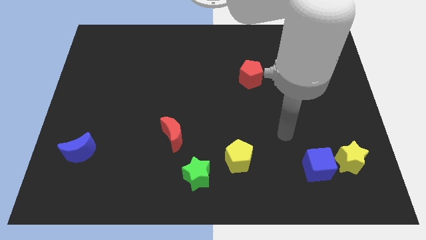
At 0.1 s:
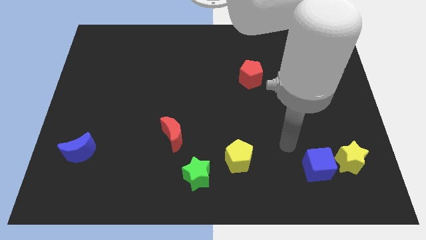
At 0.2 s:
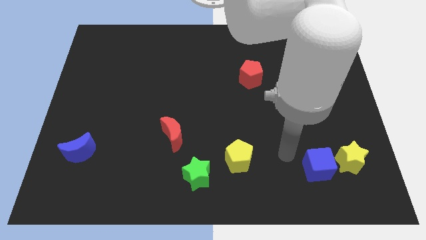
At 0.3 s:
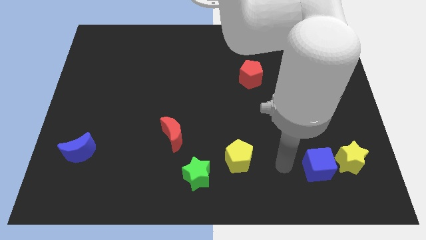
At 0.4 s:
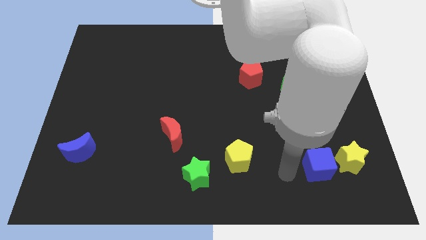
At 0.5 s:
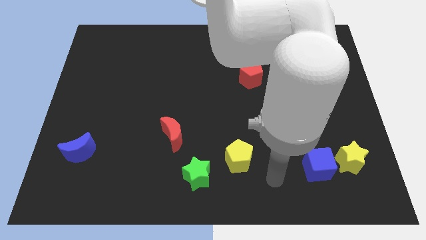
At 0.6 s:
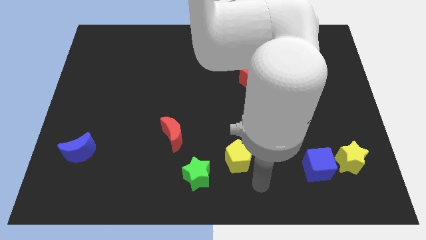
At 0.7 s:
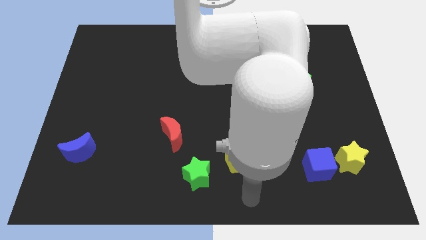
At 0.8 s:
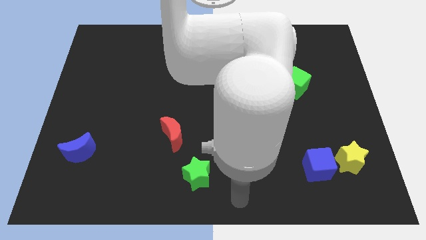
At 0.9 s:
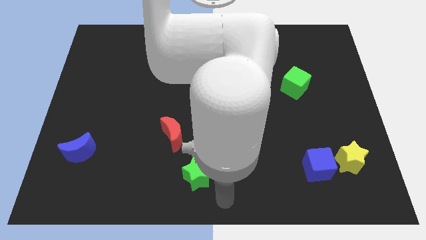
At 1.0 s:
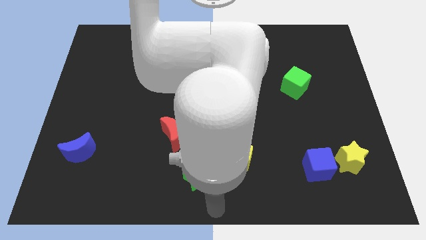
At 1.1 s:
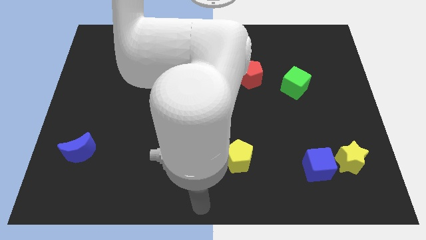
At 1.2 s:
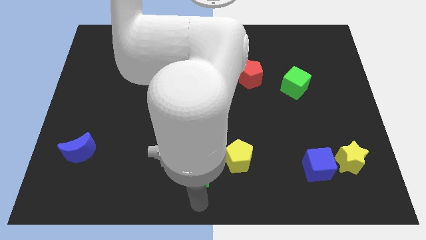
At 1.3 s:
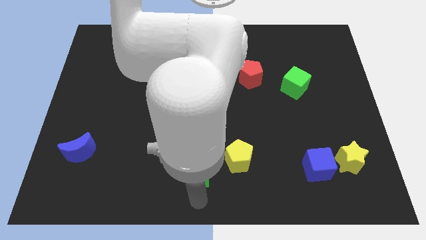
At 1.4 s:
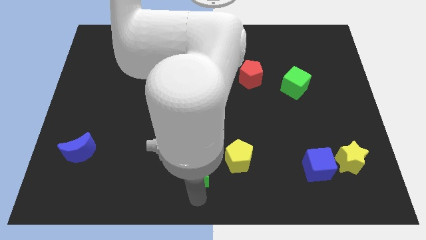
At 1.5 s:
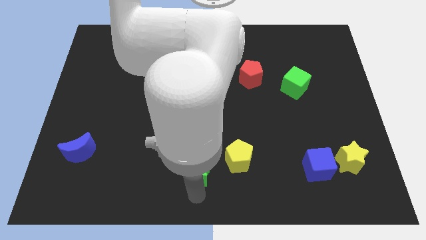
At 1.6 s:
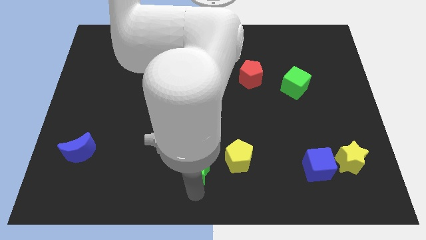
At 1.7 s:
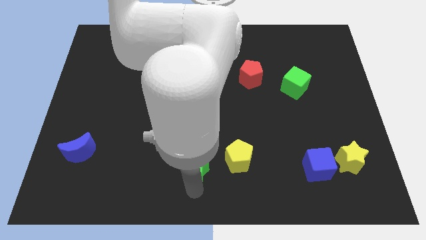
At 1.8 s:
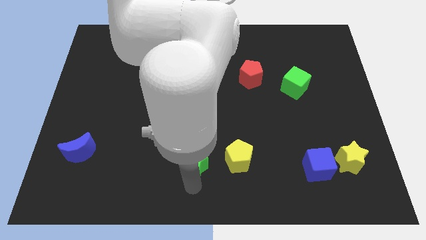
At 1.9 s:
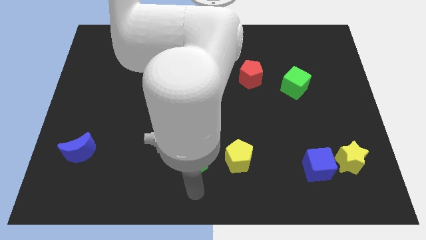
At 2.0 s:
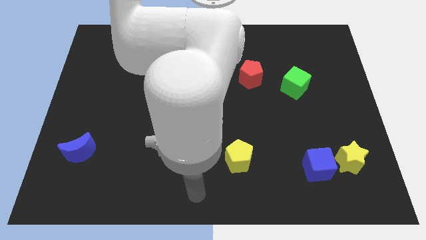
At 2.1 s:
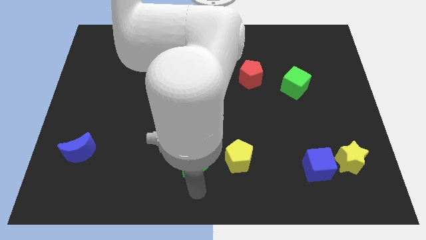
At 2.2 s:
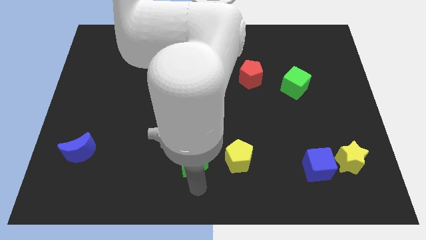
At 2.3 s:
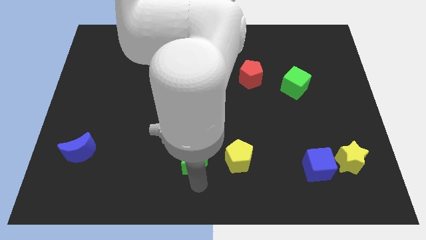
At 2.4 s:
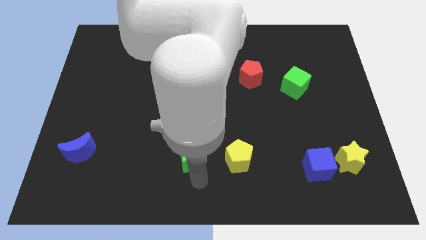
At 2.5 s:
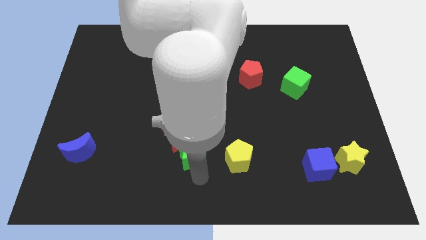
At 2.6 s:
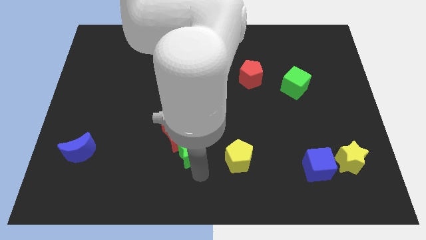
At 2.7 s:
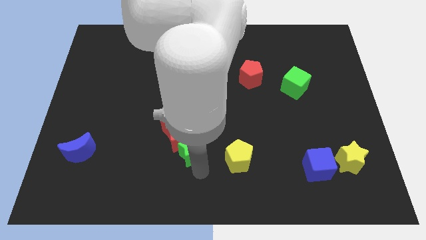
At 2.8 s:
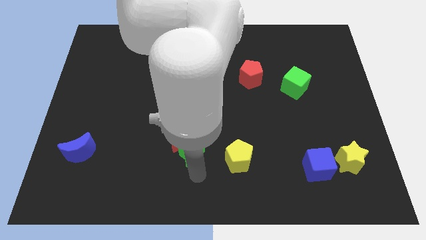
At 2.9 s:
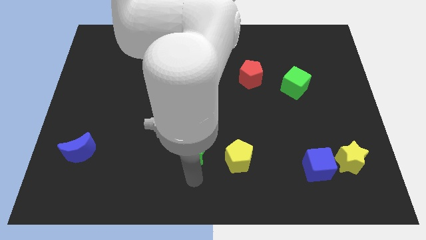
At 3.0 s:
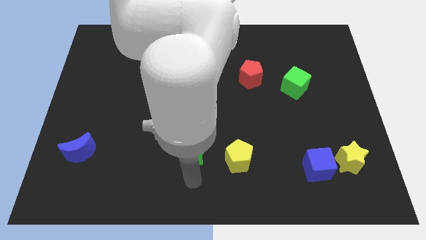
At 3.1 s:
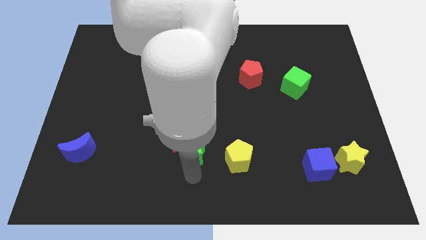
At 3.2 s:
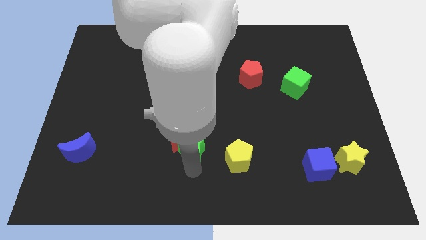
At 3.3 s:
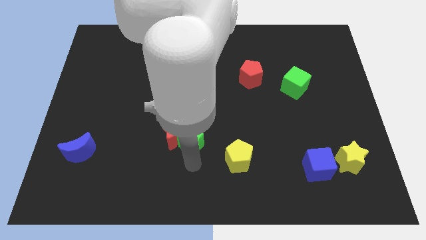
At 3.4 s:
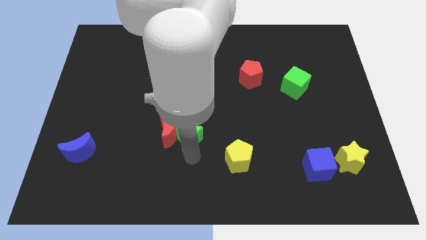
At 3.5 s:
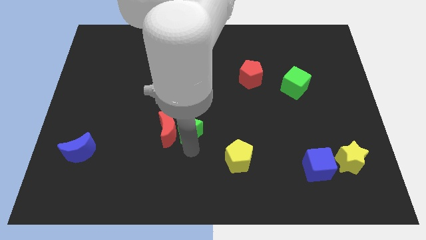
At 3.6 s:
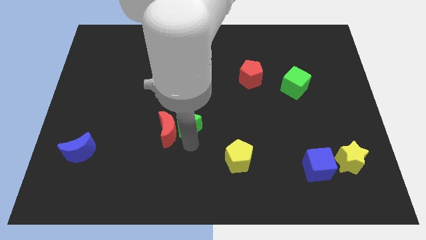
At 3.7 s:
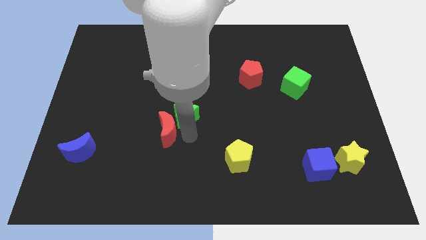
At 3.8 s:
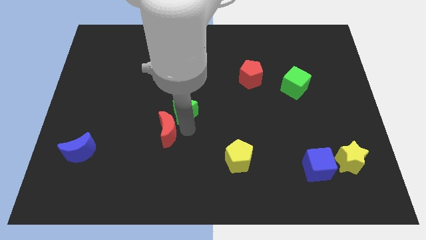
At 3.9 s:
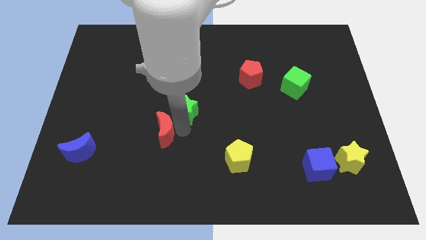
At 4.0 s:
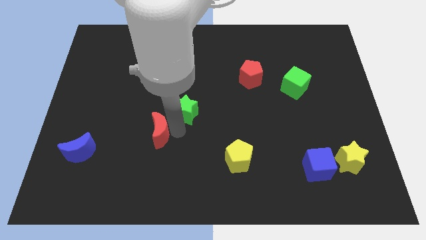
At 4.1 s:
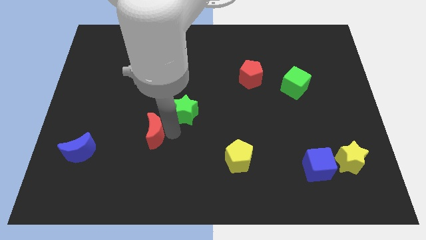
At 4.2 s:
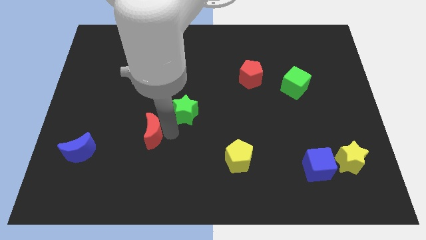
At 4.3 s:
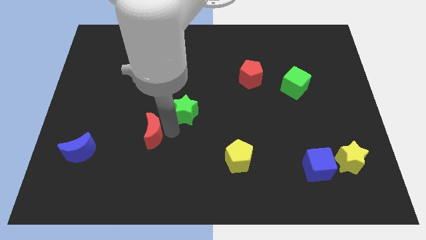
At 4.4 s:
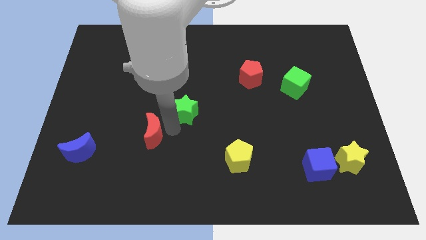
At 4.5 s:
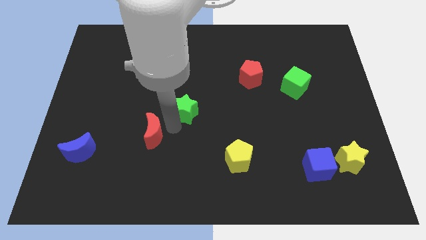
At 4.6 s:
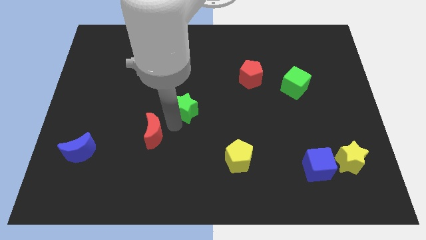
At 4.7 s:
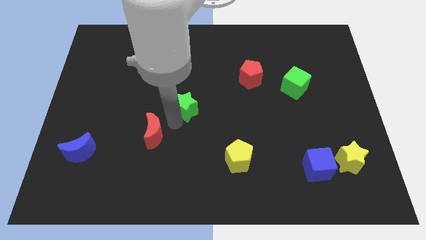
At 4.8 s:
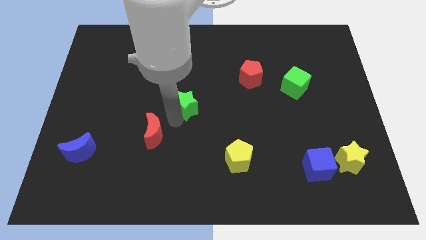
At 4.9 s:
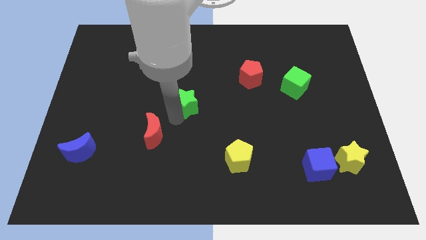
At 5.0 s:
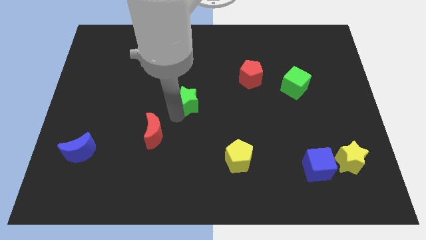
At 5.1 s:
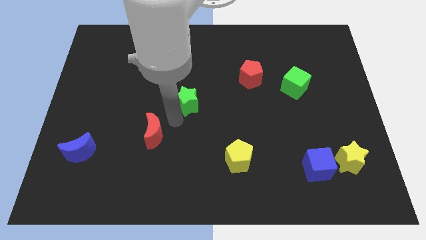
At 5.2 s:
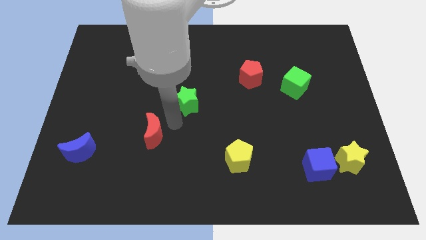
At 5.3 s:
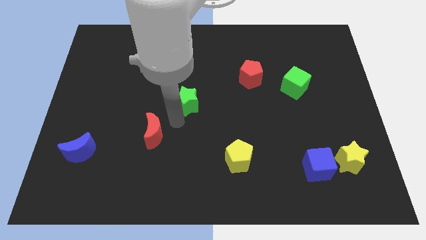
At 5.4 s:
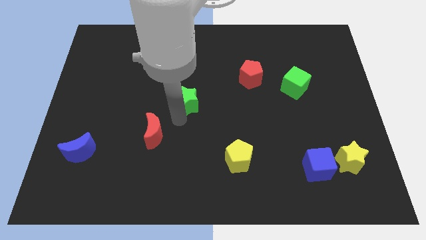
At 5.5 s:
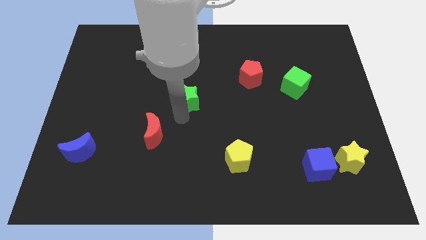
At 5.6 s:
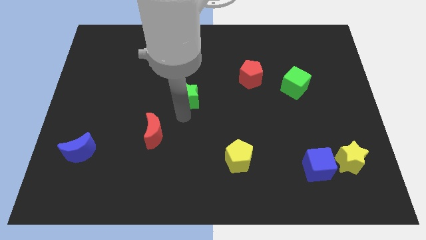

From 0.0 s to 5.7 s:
push the green star up

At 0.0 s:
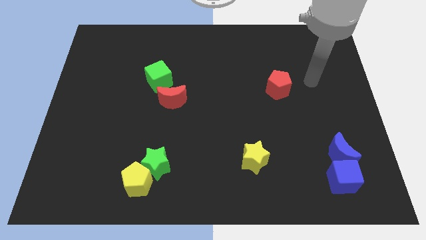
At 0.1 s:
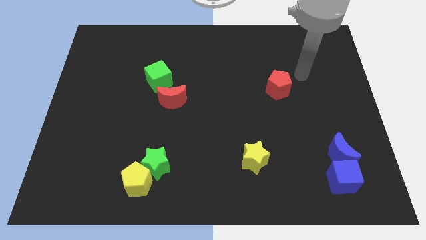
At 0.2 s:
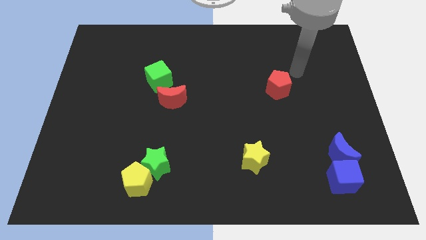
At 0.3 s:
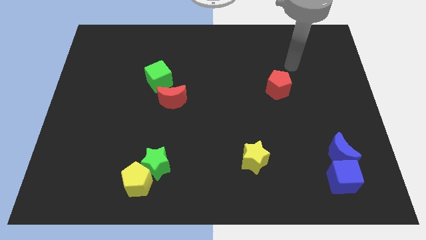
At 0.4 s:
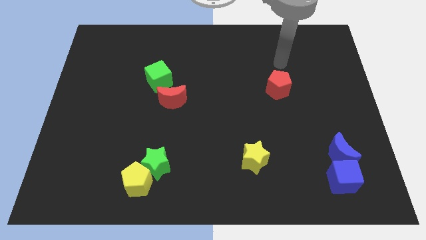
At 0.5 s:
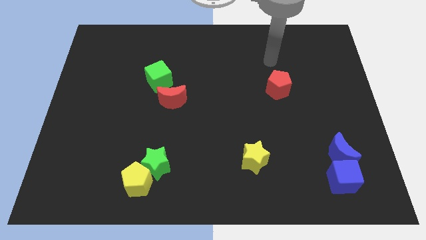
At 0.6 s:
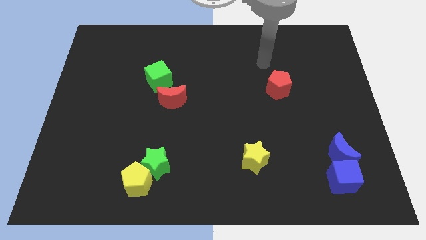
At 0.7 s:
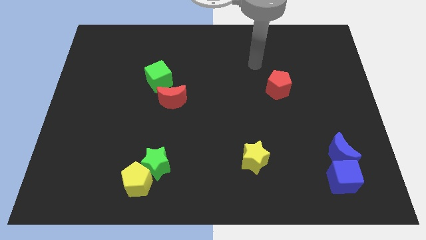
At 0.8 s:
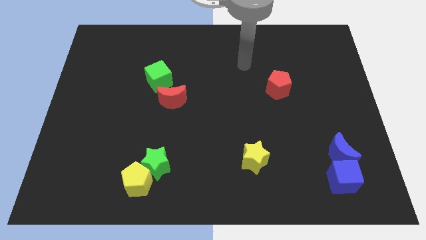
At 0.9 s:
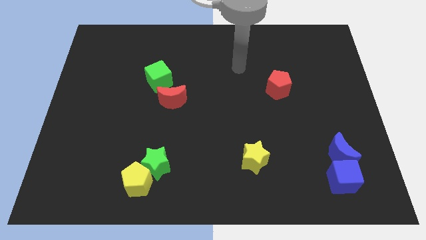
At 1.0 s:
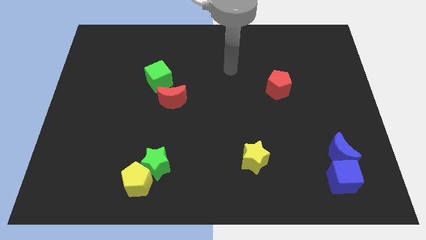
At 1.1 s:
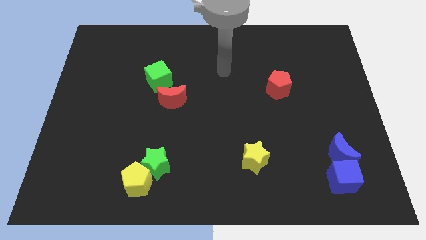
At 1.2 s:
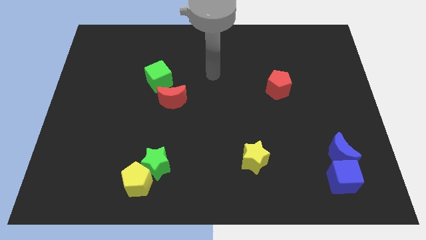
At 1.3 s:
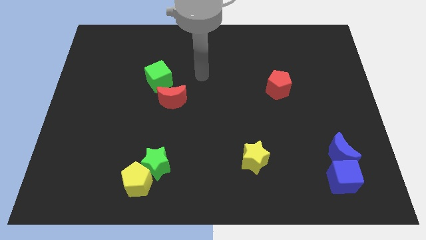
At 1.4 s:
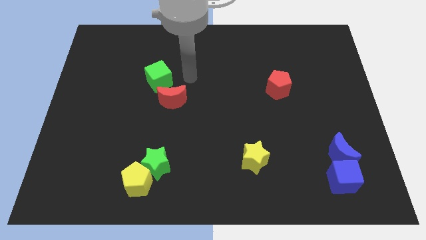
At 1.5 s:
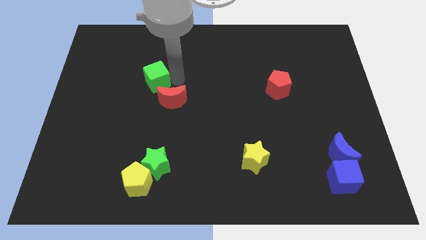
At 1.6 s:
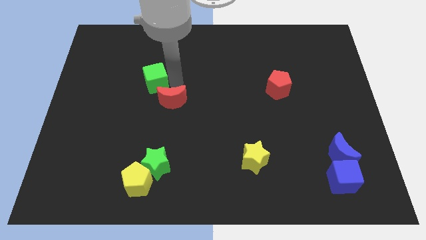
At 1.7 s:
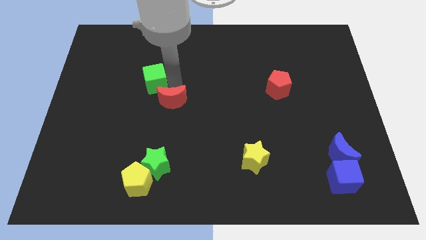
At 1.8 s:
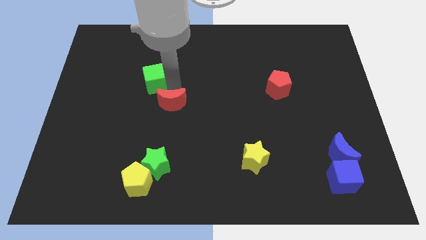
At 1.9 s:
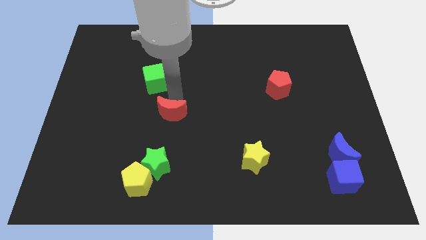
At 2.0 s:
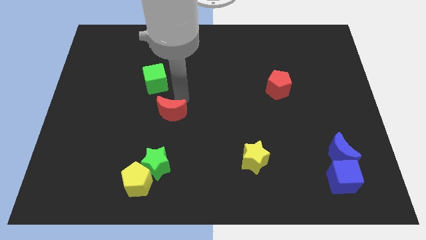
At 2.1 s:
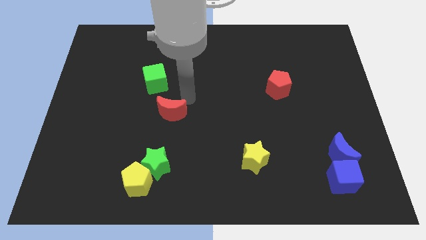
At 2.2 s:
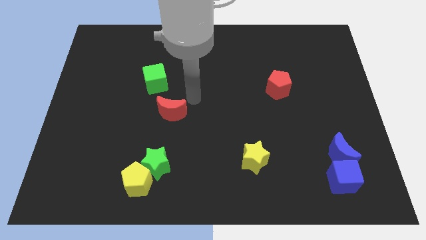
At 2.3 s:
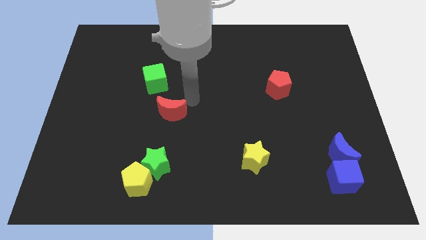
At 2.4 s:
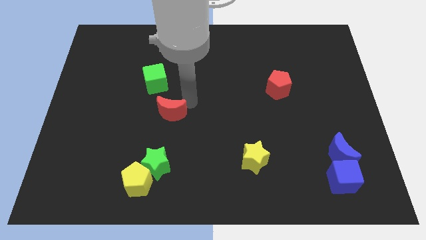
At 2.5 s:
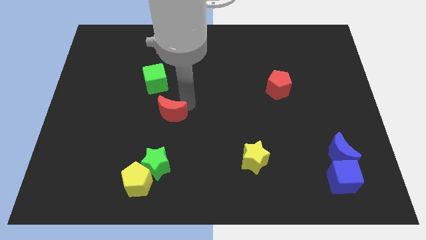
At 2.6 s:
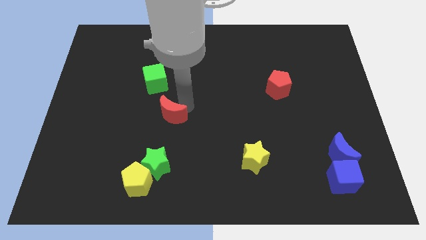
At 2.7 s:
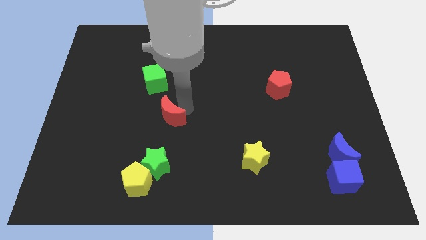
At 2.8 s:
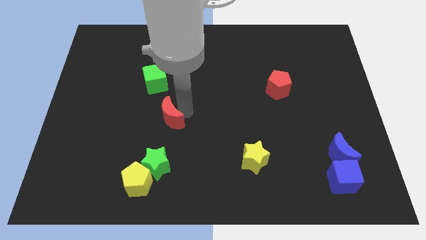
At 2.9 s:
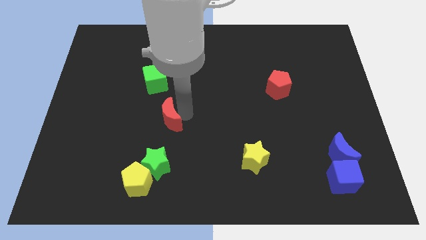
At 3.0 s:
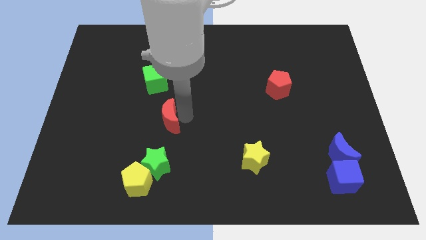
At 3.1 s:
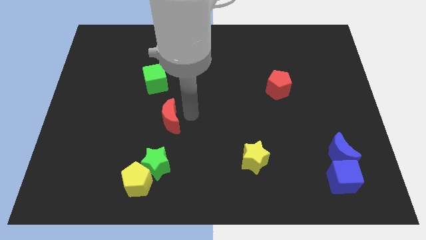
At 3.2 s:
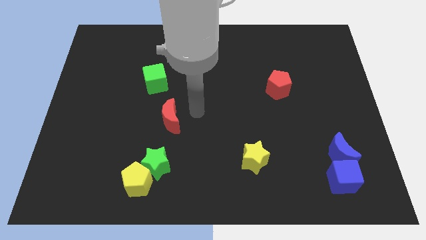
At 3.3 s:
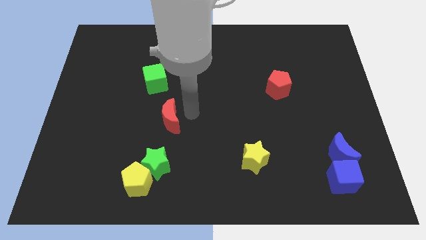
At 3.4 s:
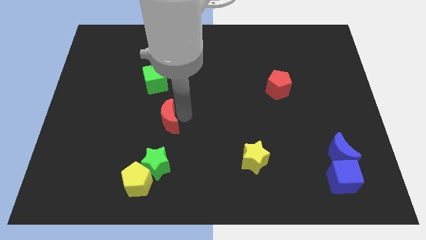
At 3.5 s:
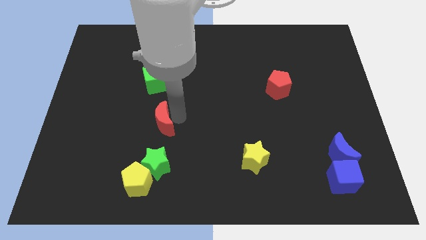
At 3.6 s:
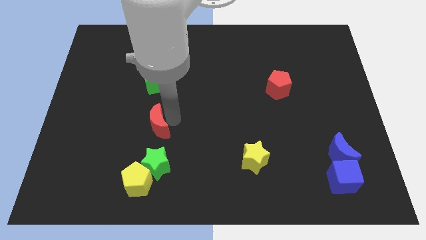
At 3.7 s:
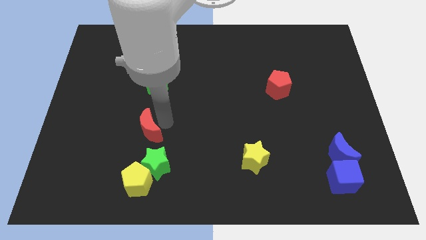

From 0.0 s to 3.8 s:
slightly slide the red moon downwards and to the left
